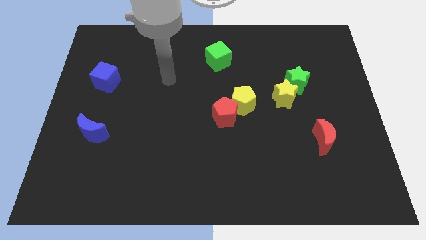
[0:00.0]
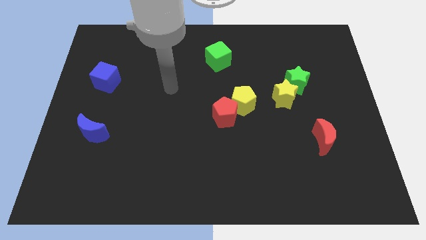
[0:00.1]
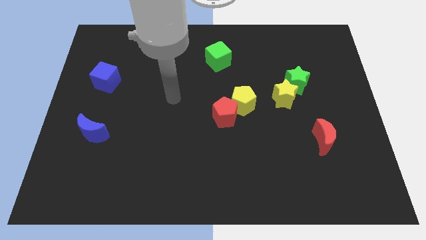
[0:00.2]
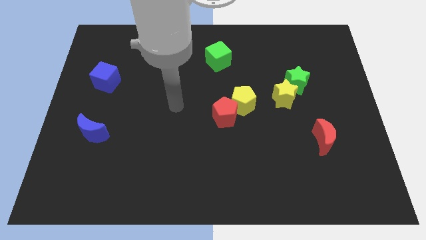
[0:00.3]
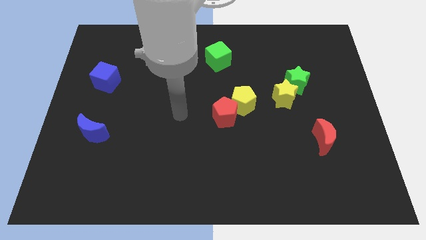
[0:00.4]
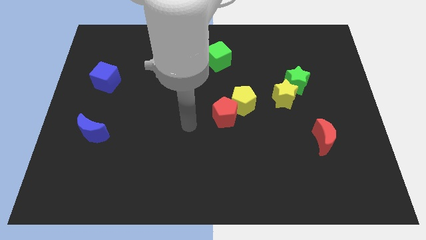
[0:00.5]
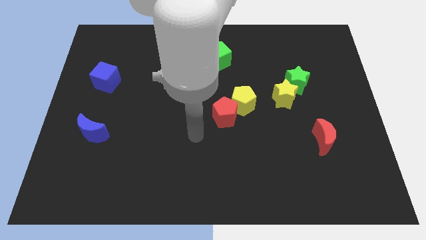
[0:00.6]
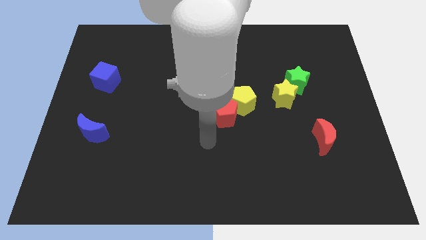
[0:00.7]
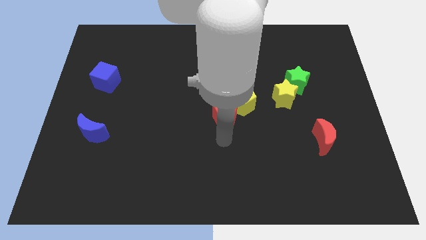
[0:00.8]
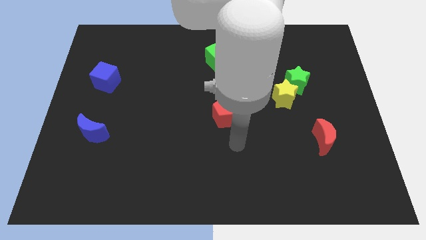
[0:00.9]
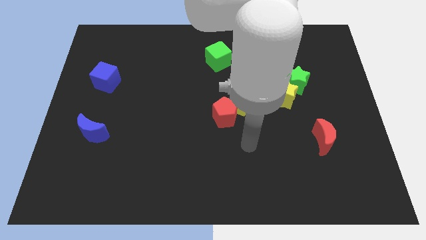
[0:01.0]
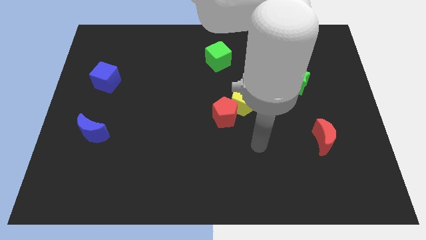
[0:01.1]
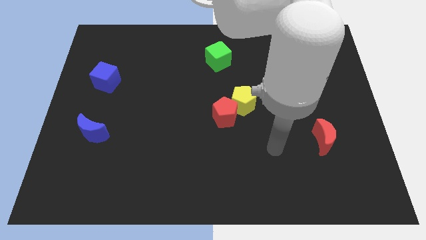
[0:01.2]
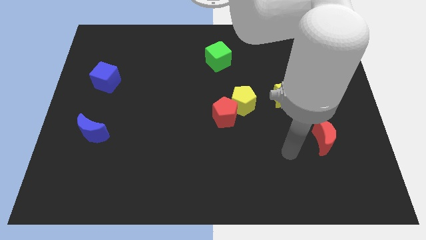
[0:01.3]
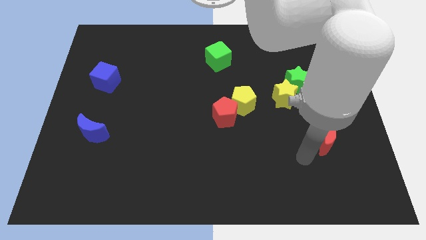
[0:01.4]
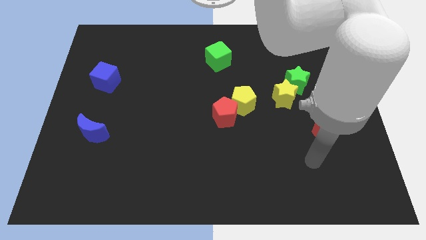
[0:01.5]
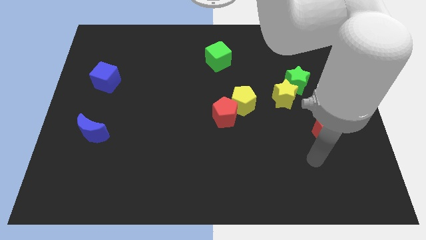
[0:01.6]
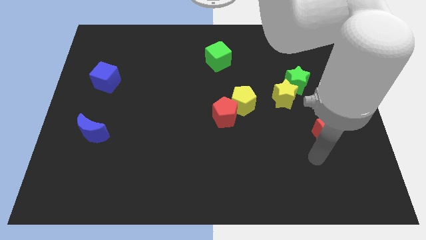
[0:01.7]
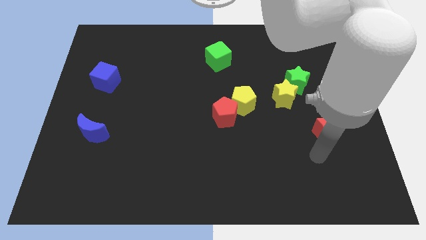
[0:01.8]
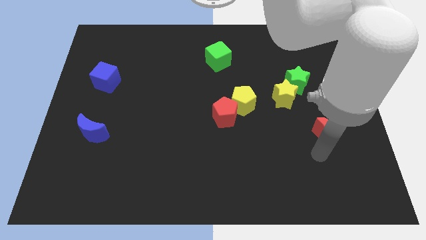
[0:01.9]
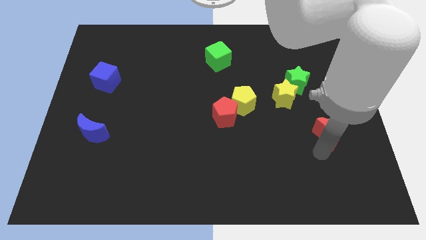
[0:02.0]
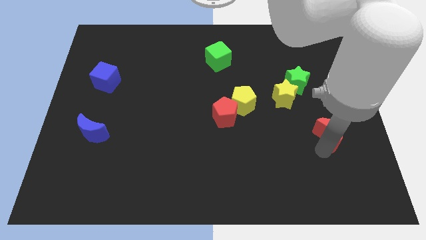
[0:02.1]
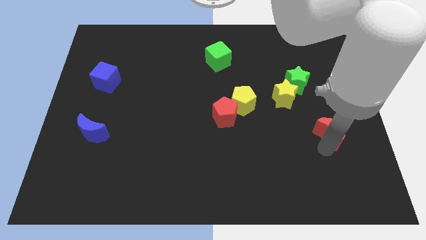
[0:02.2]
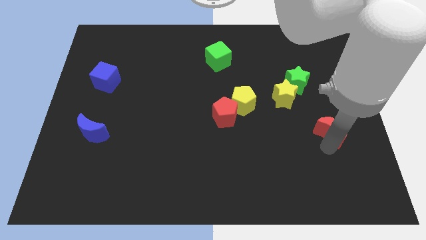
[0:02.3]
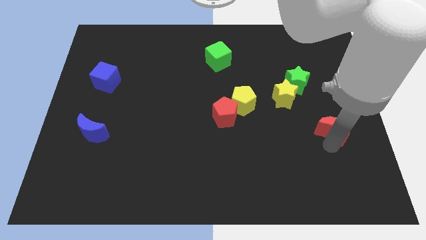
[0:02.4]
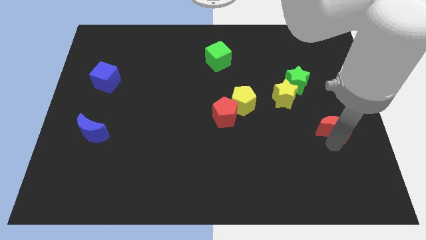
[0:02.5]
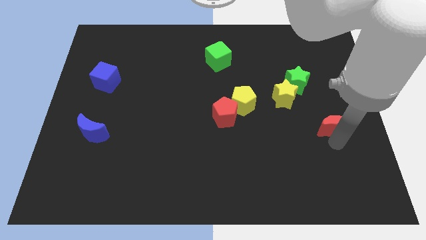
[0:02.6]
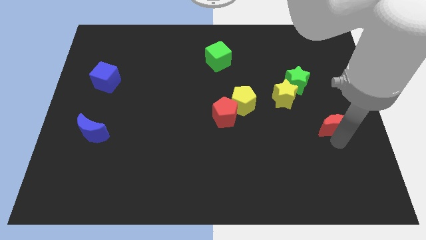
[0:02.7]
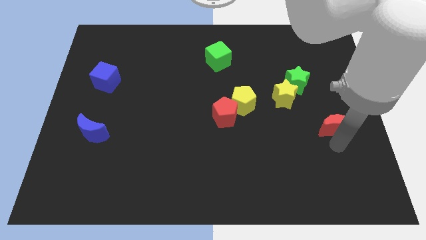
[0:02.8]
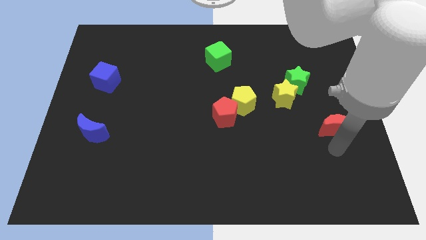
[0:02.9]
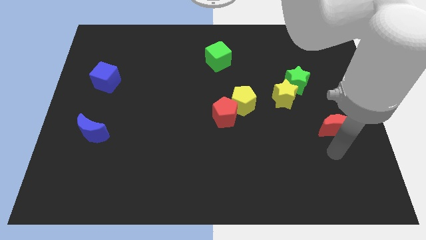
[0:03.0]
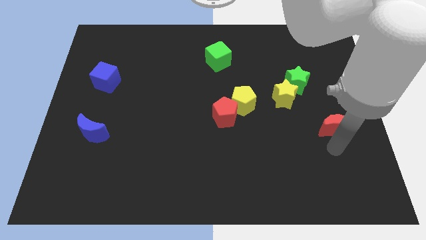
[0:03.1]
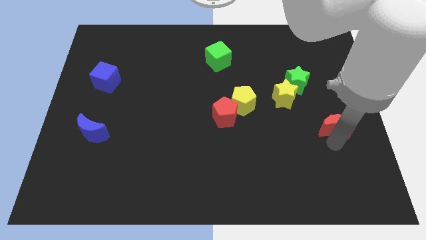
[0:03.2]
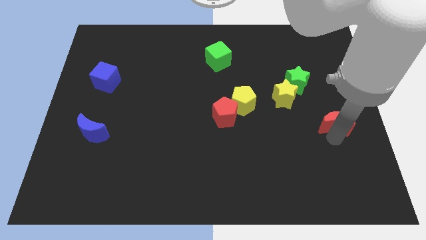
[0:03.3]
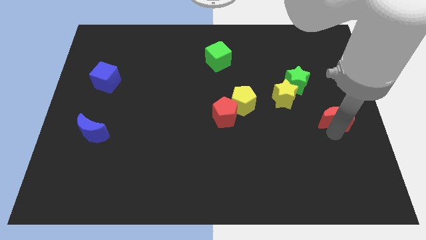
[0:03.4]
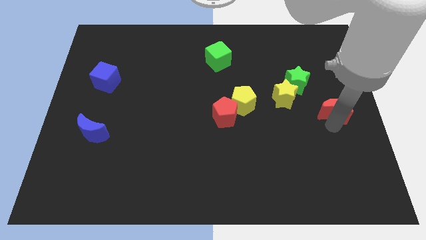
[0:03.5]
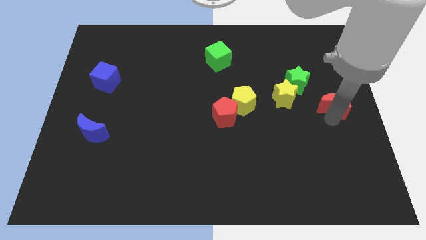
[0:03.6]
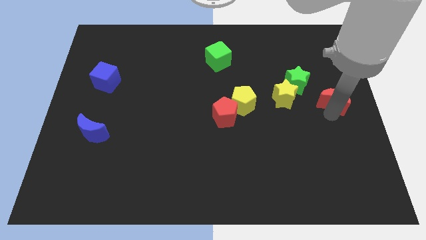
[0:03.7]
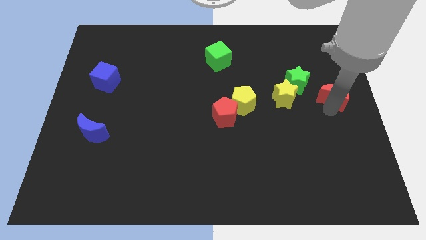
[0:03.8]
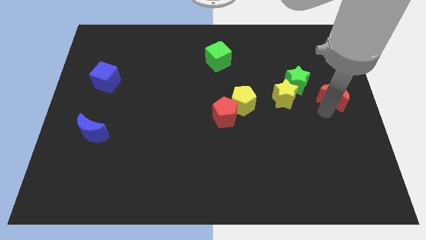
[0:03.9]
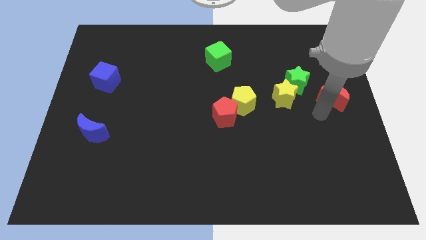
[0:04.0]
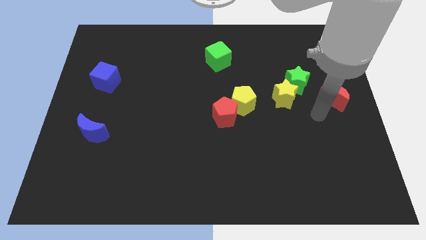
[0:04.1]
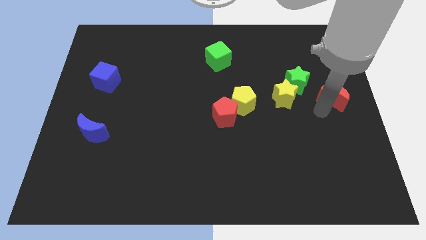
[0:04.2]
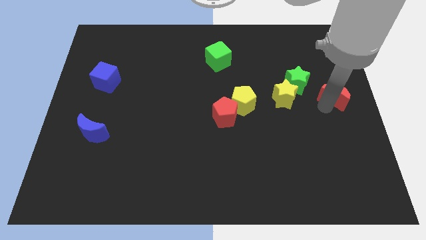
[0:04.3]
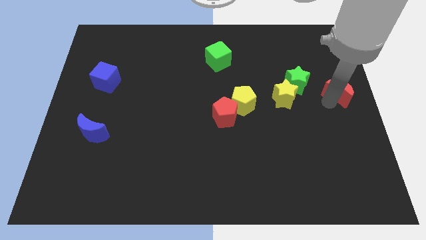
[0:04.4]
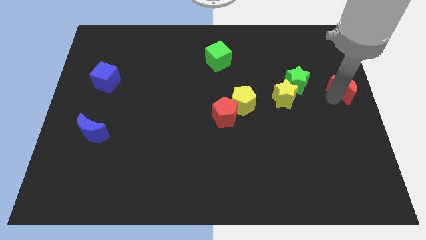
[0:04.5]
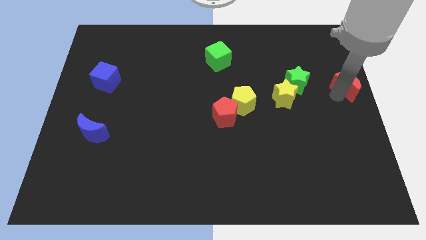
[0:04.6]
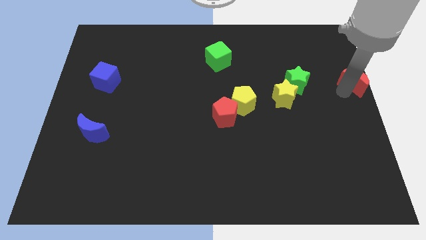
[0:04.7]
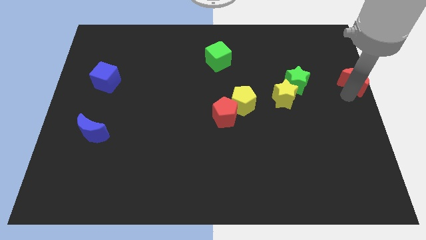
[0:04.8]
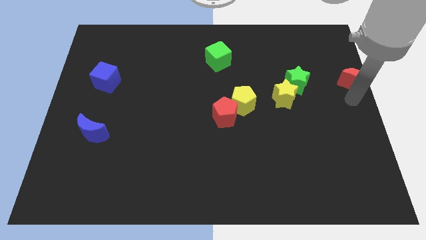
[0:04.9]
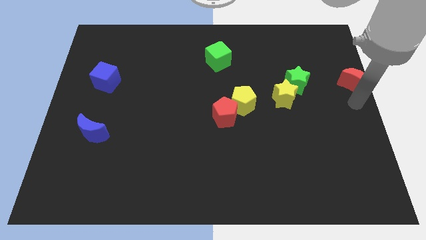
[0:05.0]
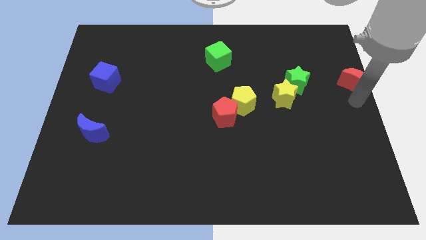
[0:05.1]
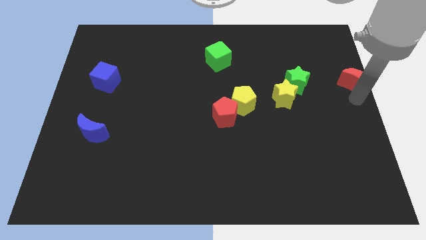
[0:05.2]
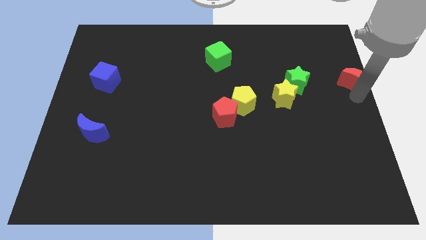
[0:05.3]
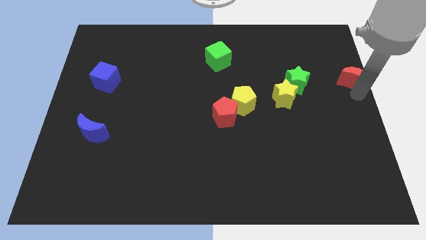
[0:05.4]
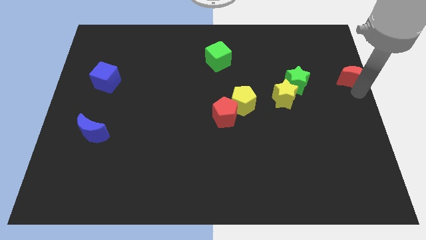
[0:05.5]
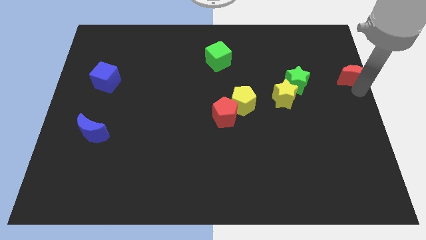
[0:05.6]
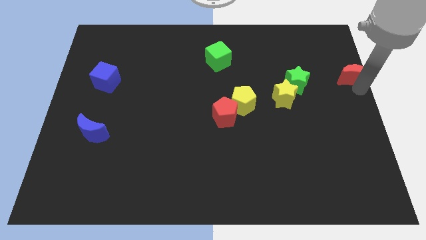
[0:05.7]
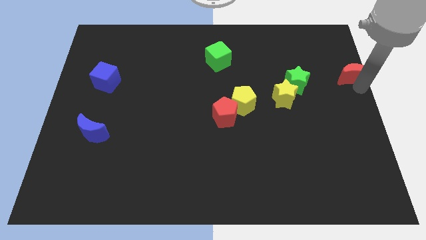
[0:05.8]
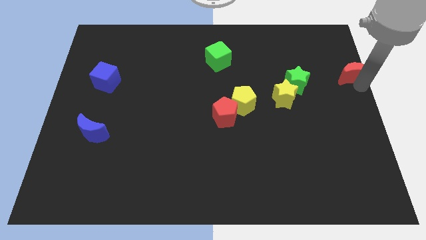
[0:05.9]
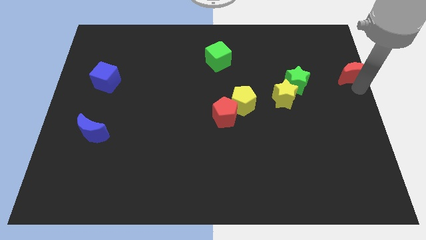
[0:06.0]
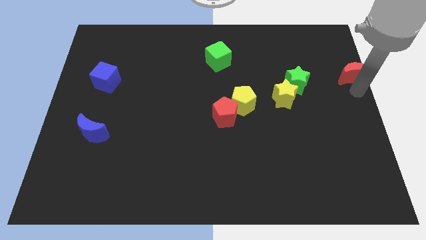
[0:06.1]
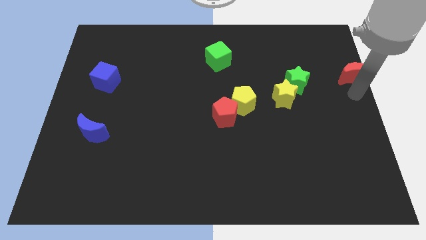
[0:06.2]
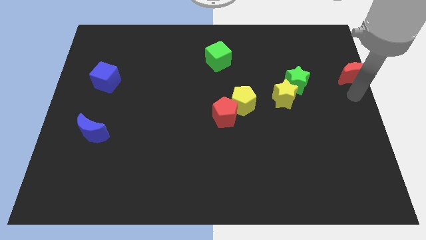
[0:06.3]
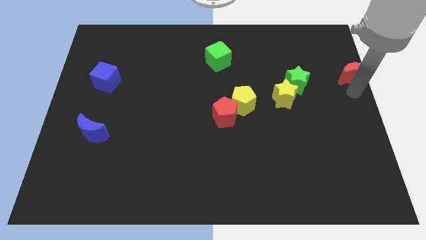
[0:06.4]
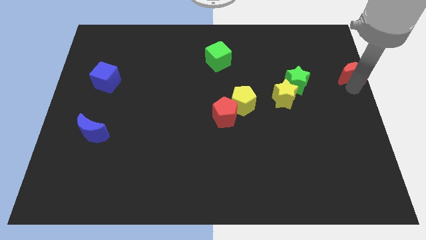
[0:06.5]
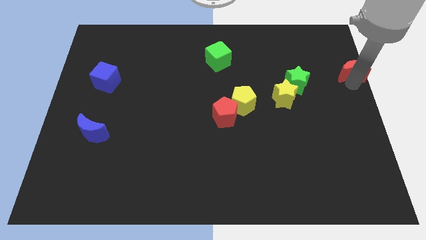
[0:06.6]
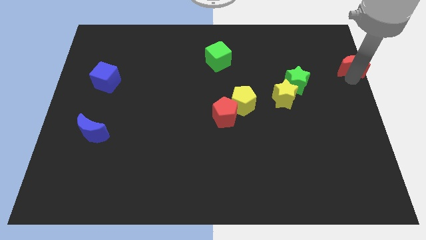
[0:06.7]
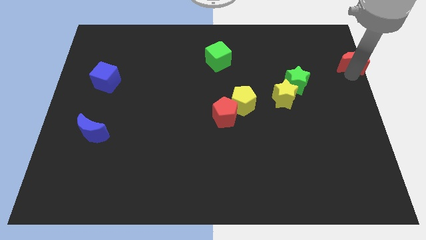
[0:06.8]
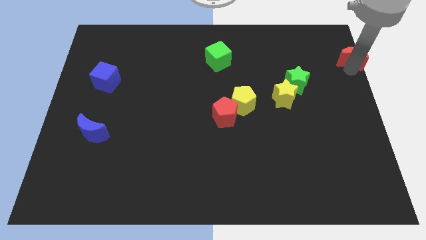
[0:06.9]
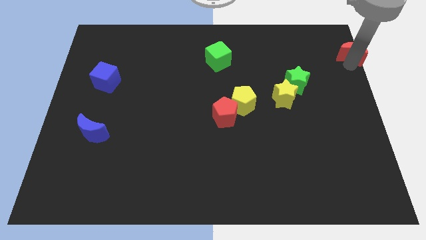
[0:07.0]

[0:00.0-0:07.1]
slide the red moon to the top right of the board
